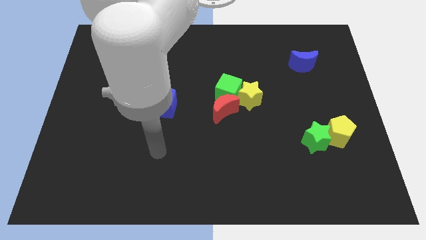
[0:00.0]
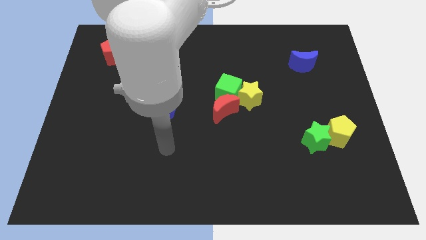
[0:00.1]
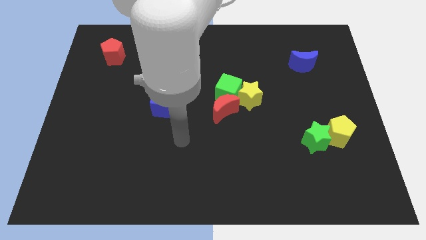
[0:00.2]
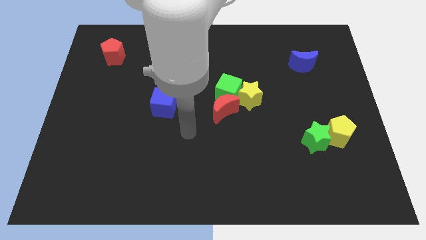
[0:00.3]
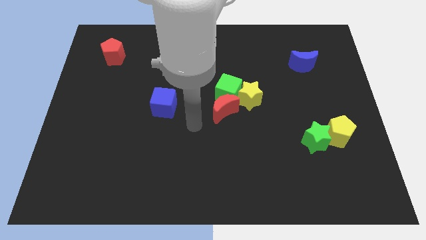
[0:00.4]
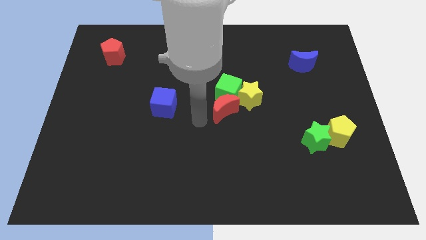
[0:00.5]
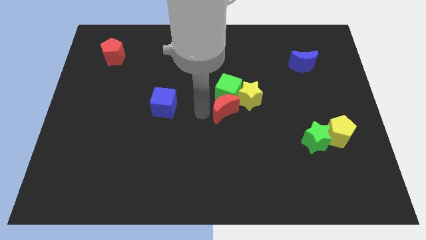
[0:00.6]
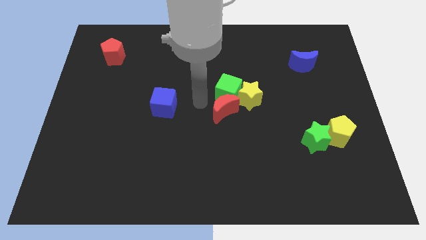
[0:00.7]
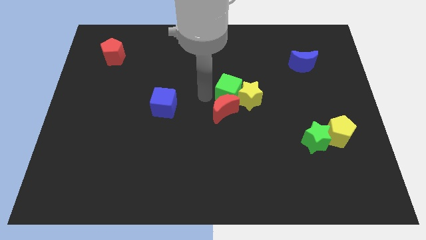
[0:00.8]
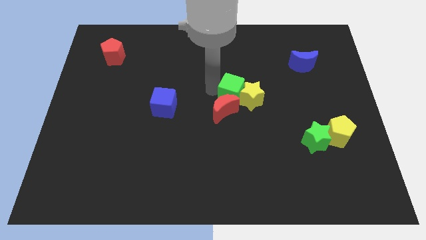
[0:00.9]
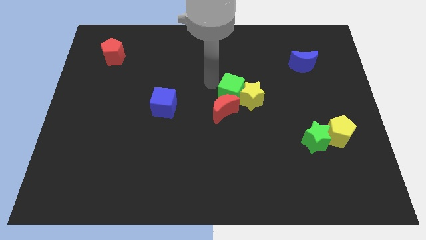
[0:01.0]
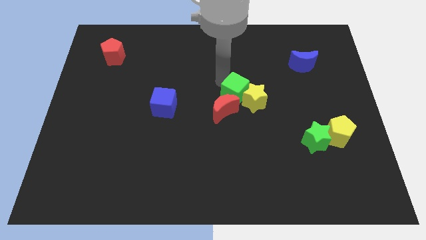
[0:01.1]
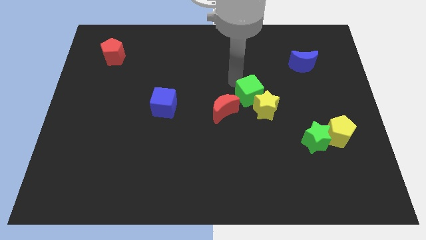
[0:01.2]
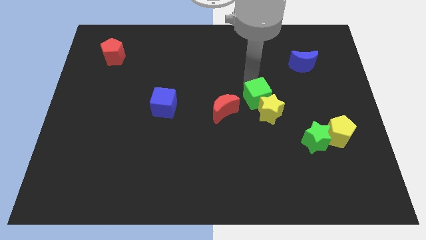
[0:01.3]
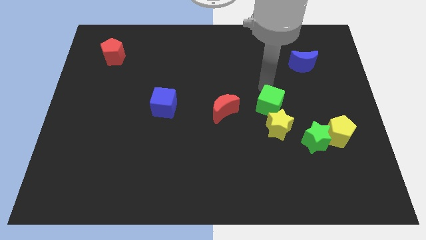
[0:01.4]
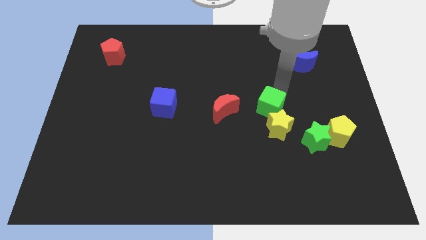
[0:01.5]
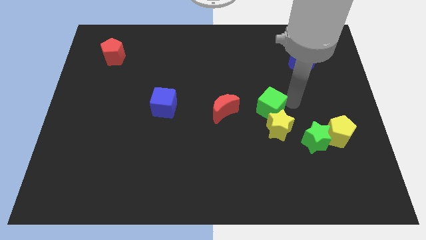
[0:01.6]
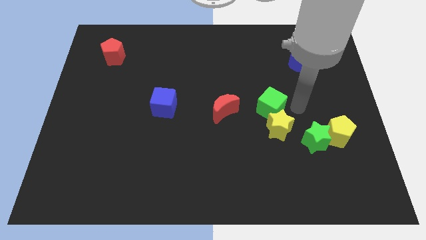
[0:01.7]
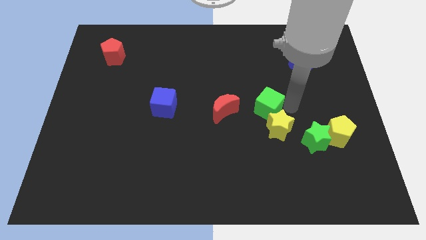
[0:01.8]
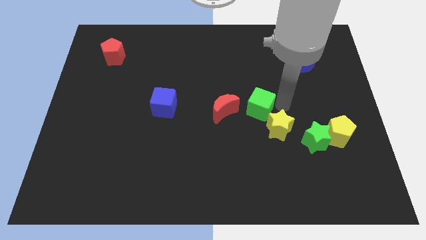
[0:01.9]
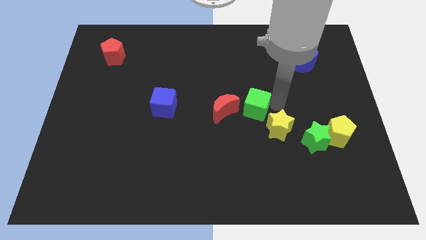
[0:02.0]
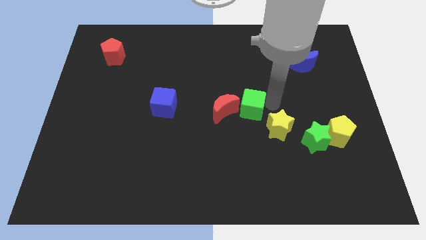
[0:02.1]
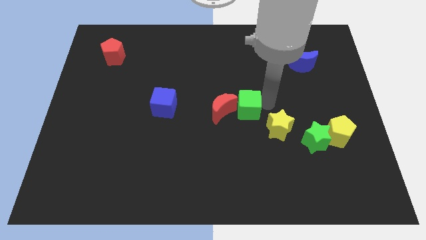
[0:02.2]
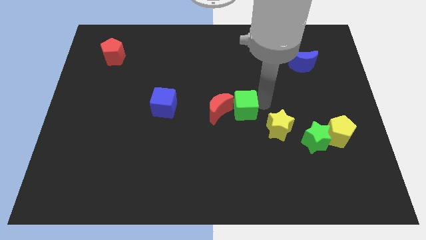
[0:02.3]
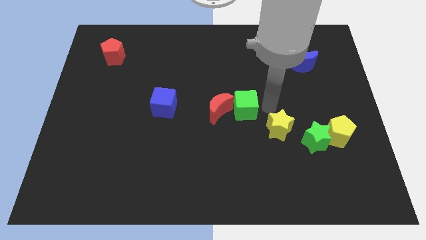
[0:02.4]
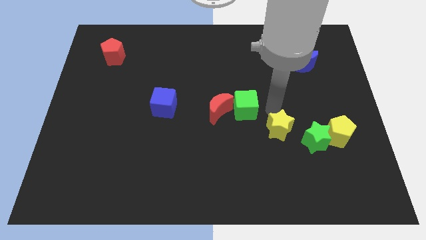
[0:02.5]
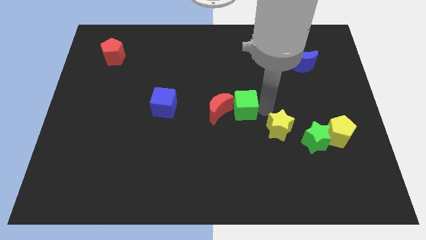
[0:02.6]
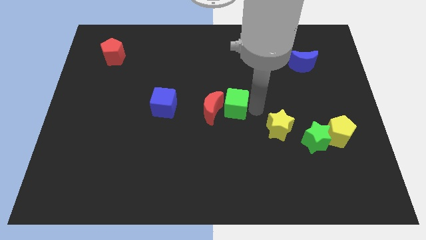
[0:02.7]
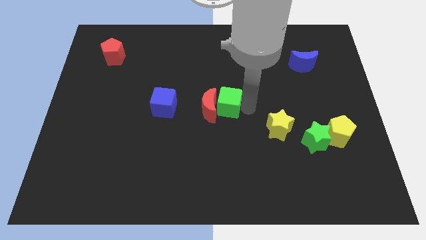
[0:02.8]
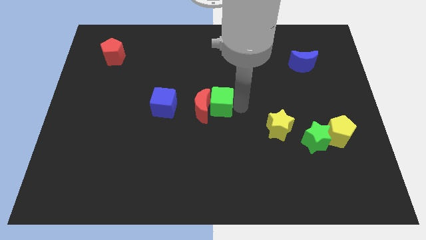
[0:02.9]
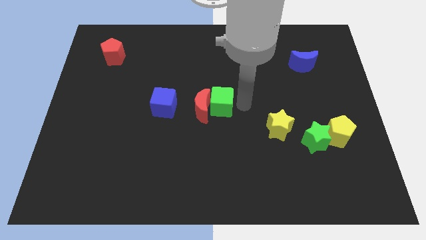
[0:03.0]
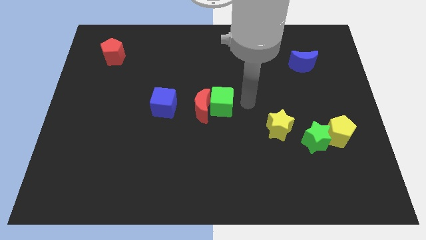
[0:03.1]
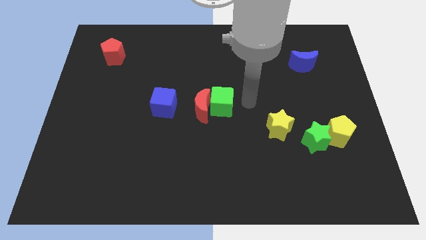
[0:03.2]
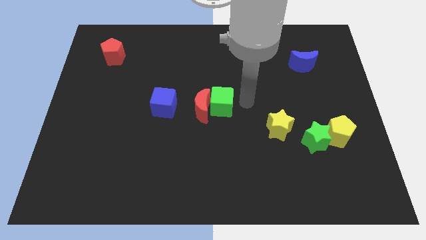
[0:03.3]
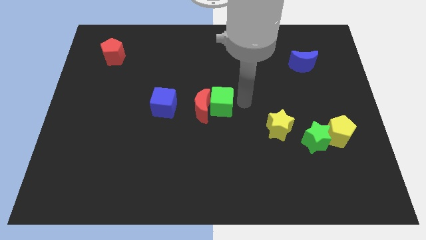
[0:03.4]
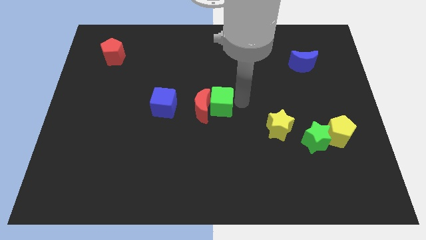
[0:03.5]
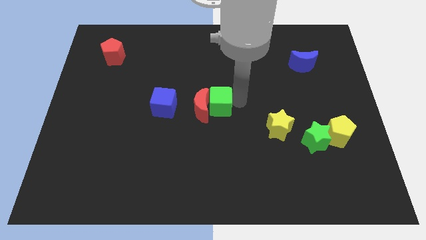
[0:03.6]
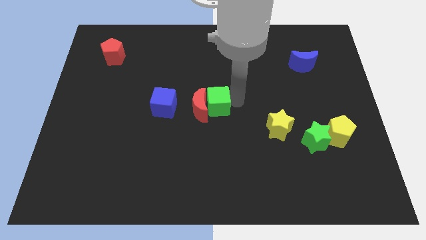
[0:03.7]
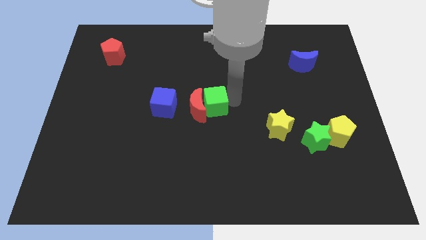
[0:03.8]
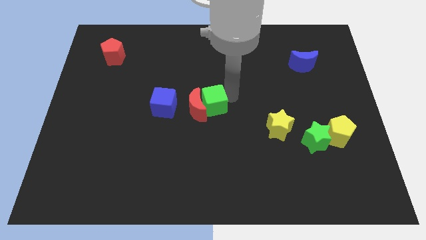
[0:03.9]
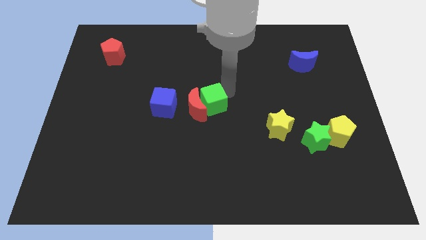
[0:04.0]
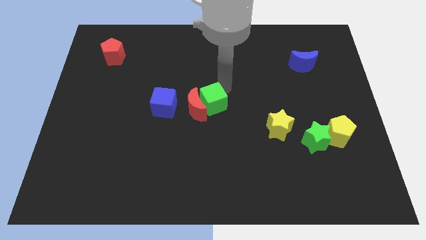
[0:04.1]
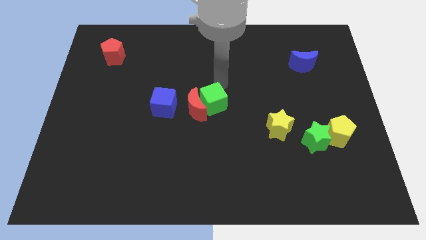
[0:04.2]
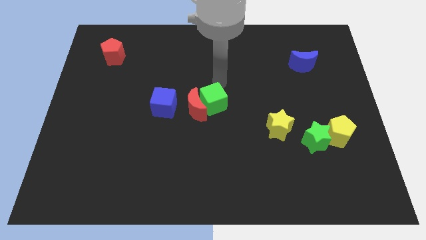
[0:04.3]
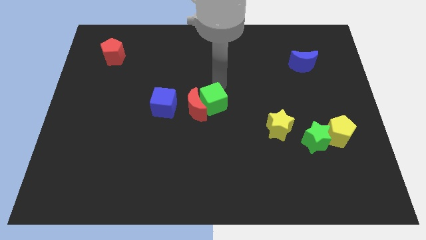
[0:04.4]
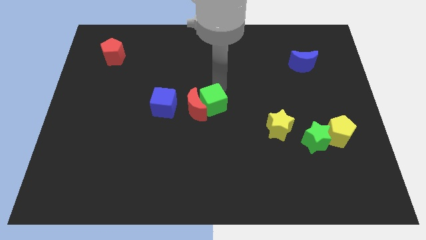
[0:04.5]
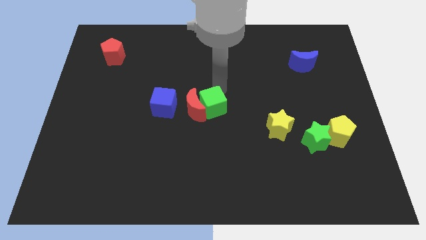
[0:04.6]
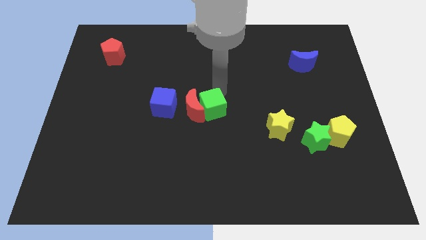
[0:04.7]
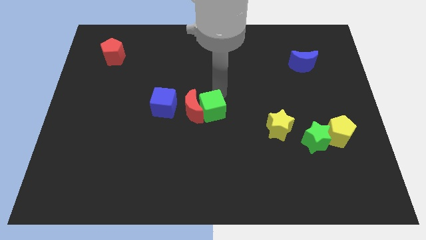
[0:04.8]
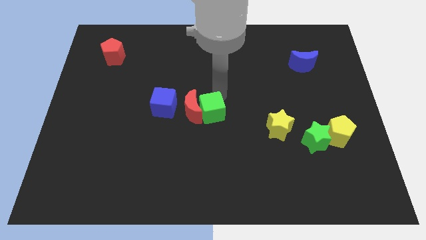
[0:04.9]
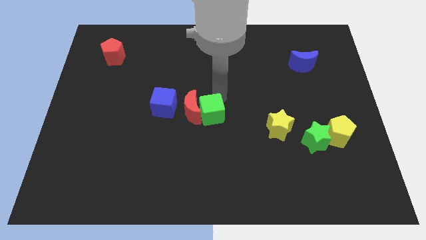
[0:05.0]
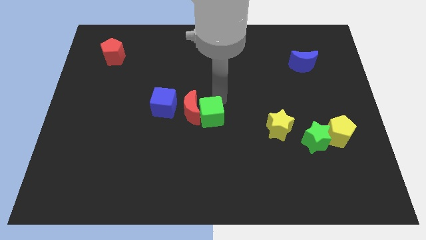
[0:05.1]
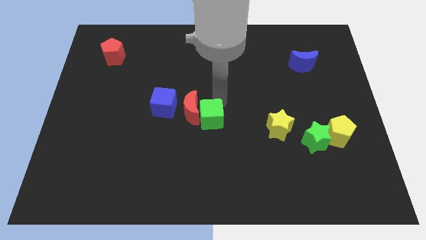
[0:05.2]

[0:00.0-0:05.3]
push the green cube somewhat downwards

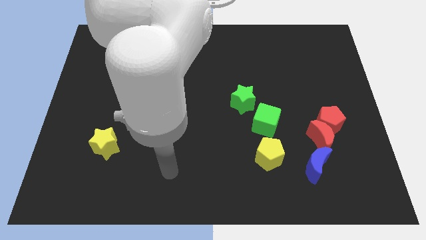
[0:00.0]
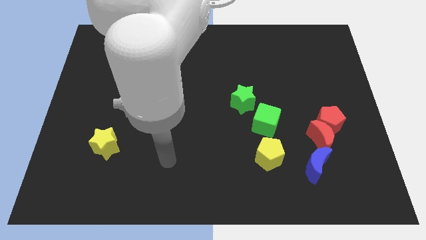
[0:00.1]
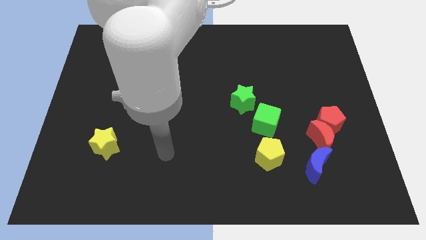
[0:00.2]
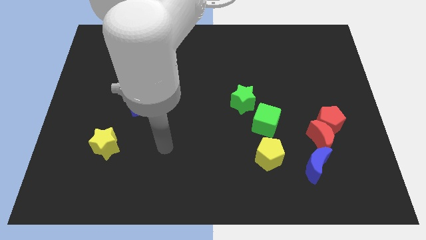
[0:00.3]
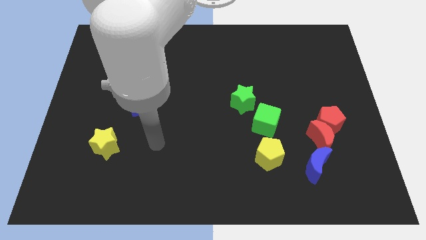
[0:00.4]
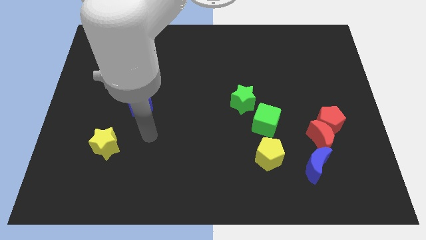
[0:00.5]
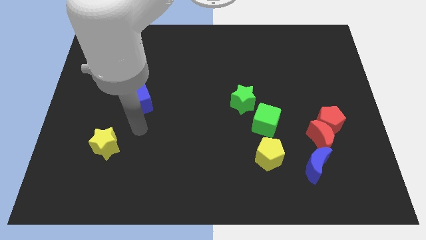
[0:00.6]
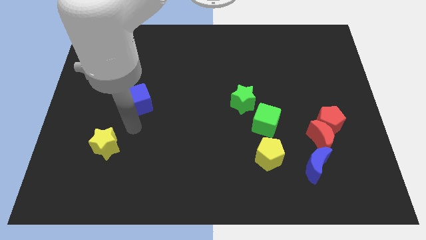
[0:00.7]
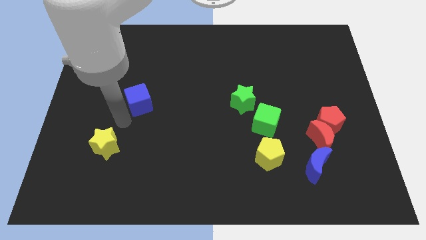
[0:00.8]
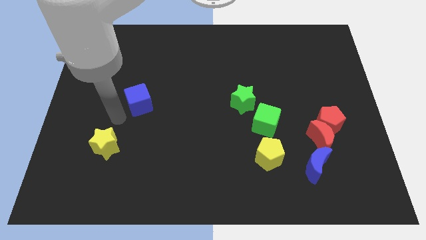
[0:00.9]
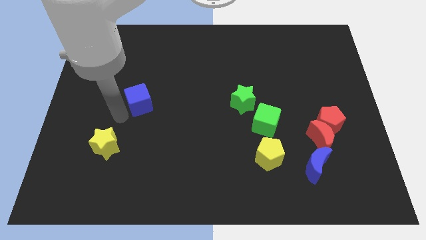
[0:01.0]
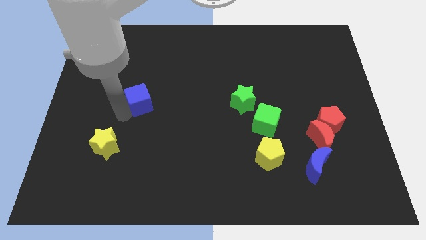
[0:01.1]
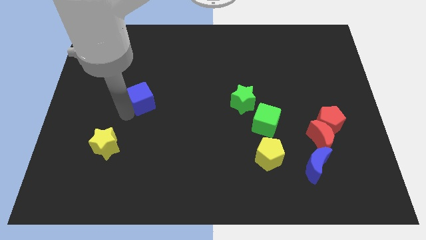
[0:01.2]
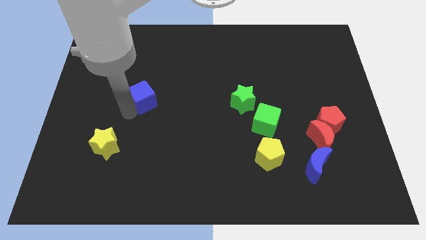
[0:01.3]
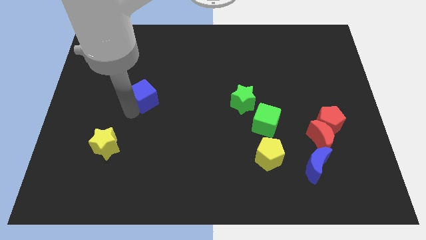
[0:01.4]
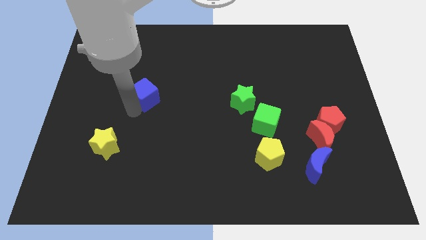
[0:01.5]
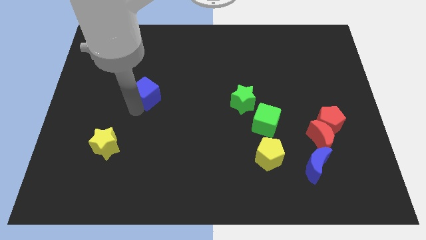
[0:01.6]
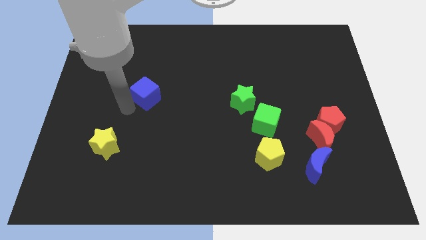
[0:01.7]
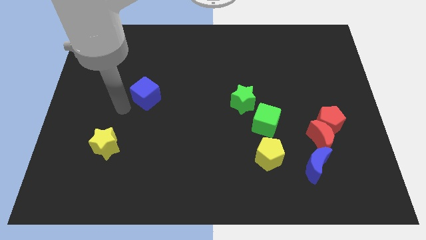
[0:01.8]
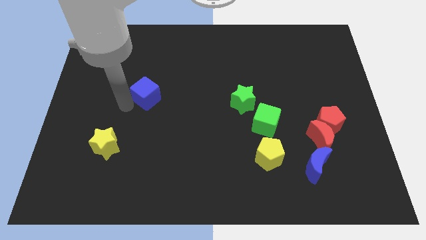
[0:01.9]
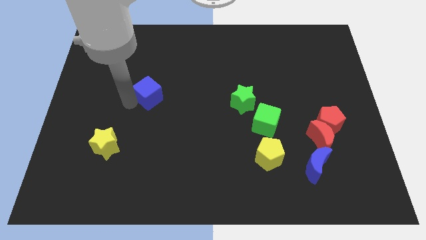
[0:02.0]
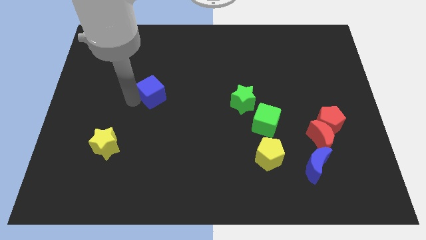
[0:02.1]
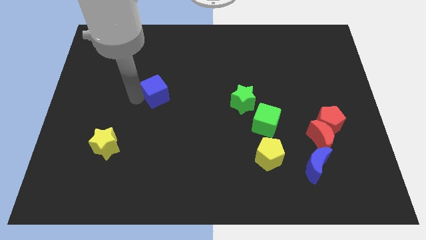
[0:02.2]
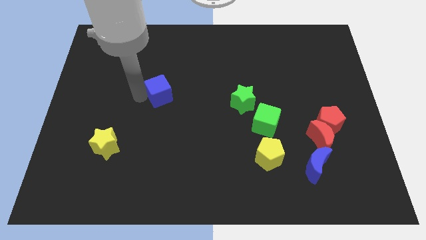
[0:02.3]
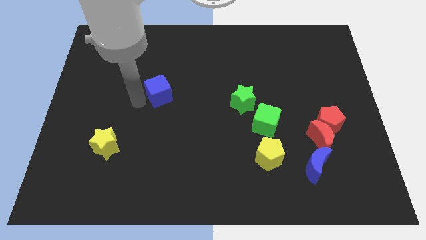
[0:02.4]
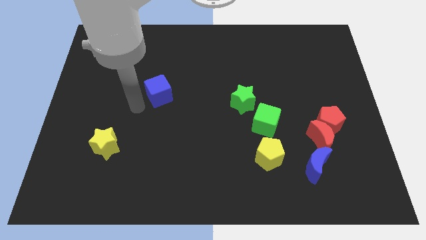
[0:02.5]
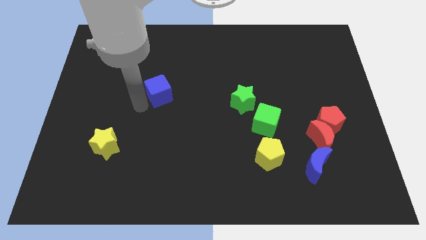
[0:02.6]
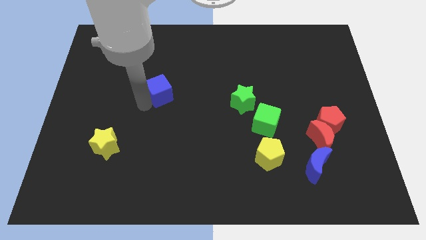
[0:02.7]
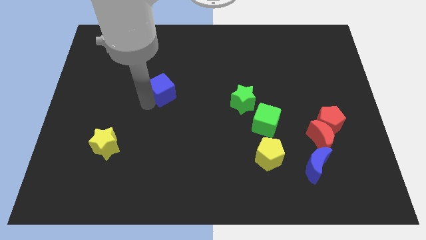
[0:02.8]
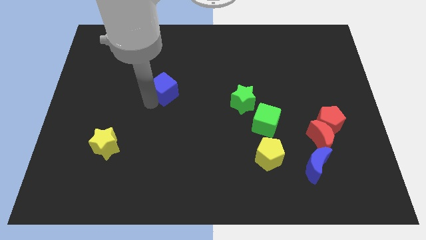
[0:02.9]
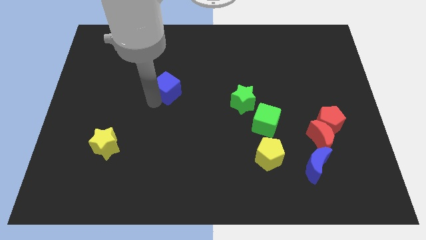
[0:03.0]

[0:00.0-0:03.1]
slightly slide the blue cube up and right diagonally
